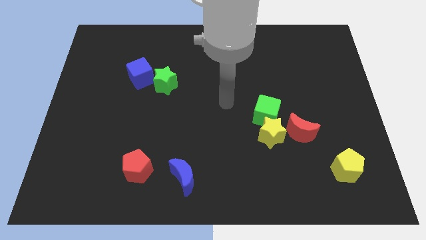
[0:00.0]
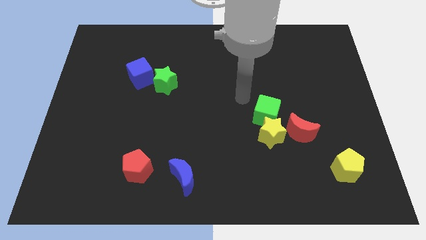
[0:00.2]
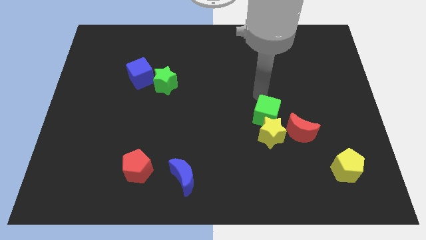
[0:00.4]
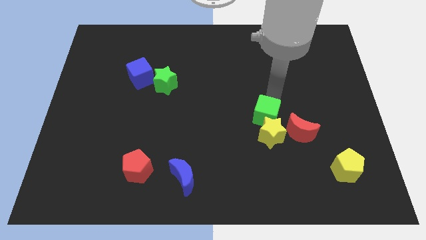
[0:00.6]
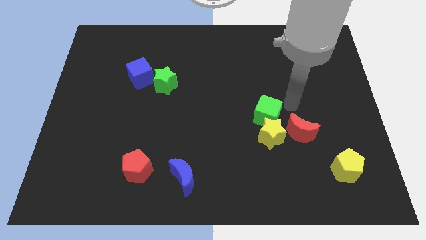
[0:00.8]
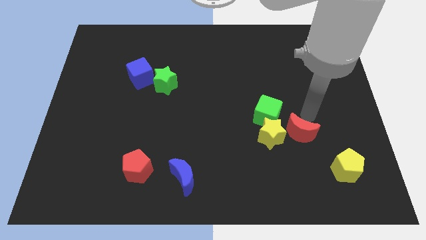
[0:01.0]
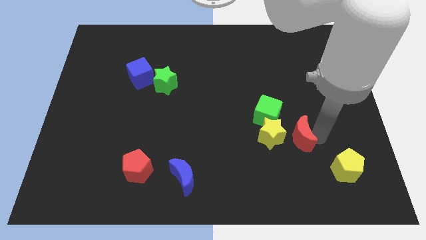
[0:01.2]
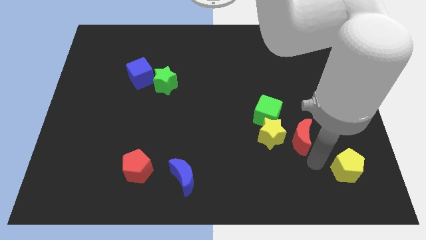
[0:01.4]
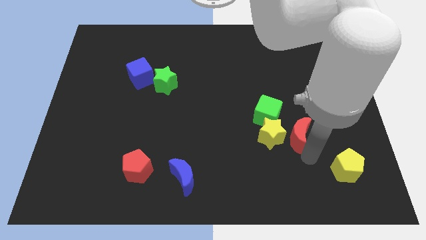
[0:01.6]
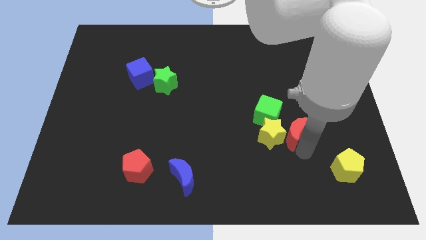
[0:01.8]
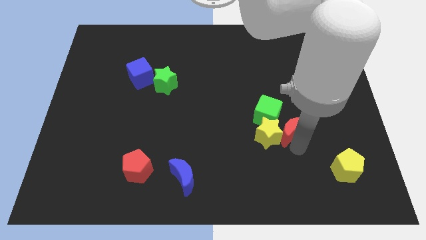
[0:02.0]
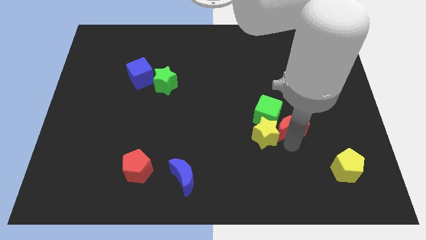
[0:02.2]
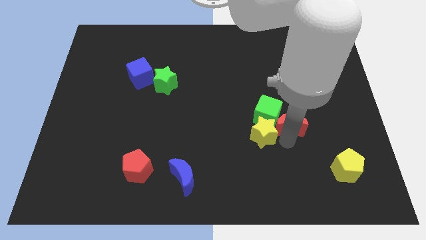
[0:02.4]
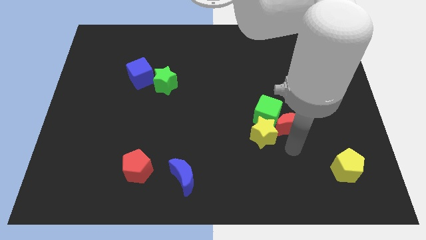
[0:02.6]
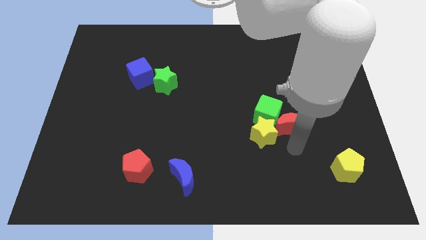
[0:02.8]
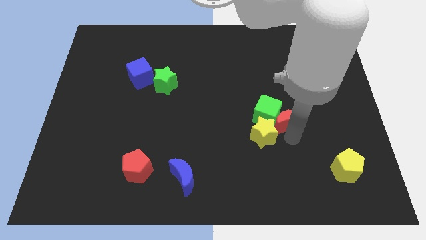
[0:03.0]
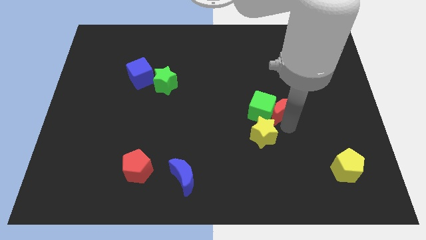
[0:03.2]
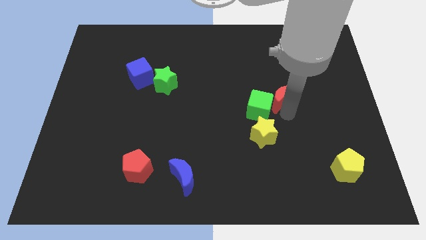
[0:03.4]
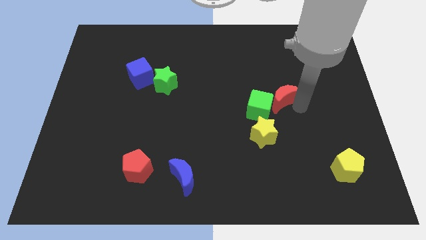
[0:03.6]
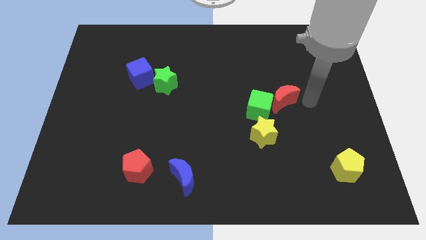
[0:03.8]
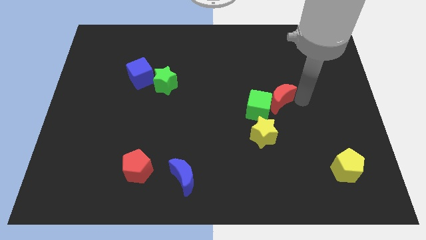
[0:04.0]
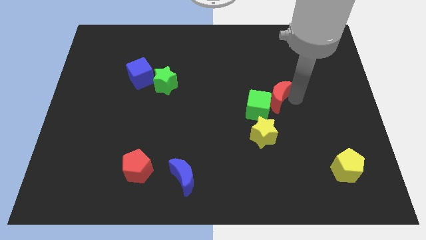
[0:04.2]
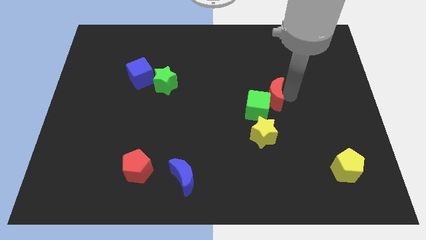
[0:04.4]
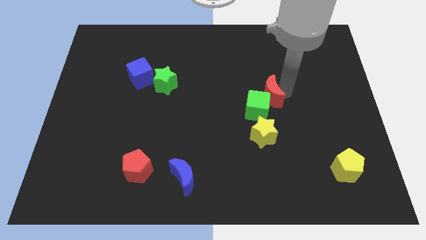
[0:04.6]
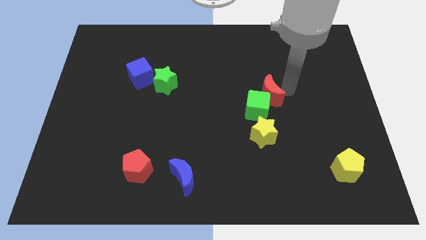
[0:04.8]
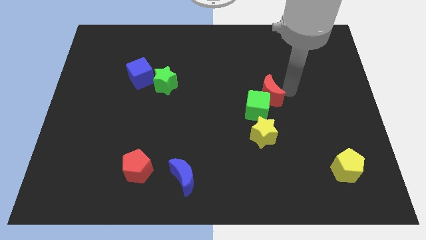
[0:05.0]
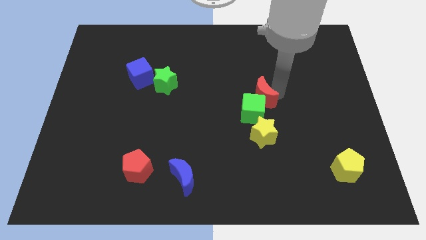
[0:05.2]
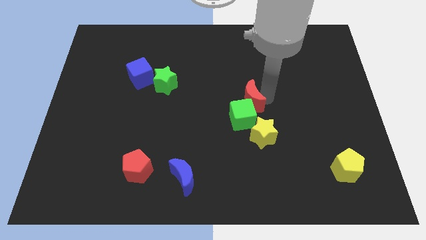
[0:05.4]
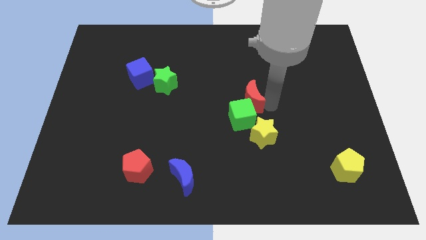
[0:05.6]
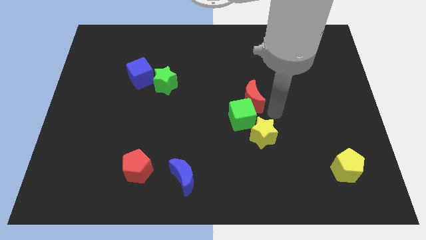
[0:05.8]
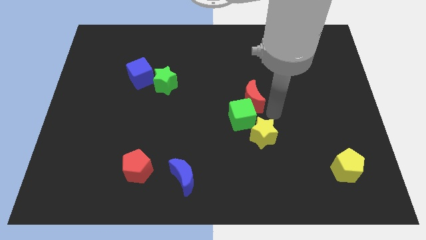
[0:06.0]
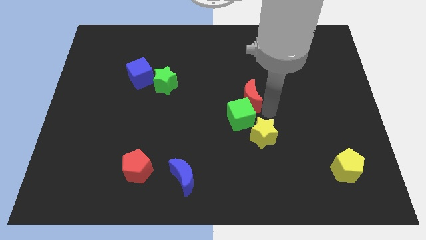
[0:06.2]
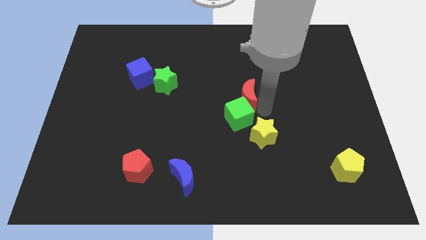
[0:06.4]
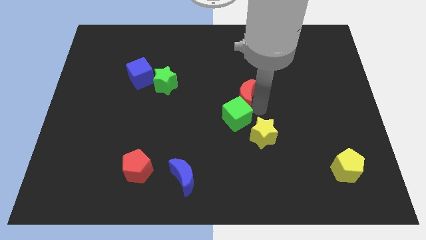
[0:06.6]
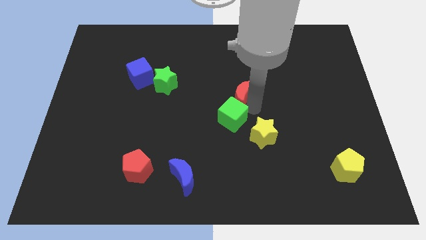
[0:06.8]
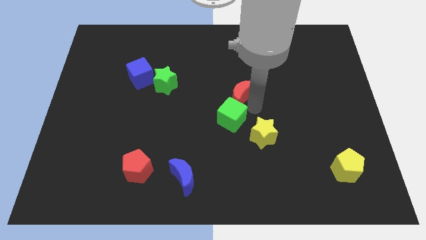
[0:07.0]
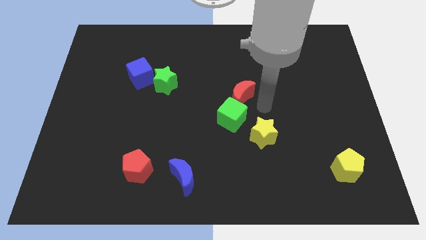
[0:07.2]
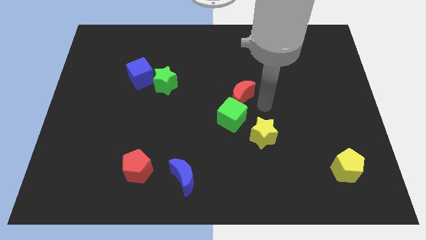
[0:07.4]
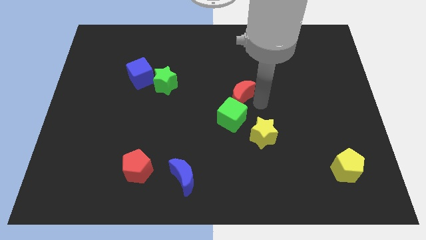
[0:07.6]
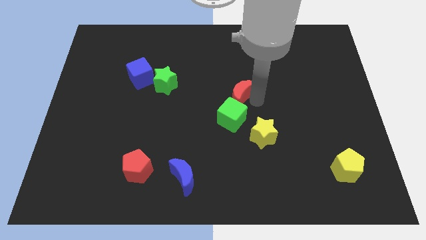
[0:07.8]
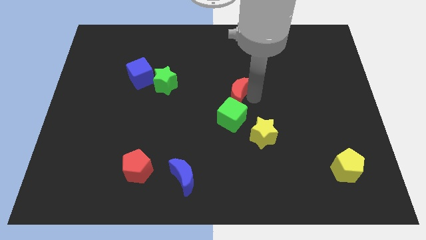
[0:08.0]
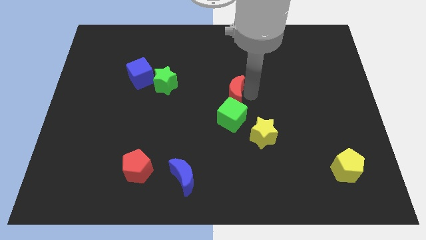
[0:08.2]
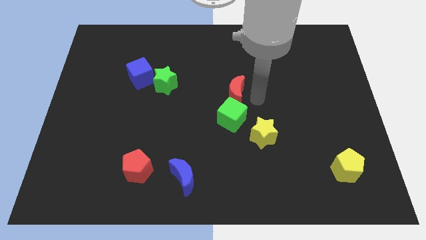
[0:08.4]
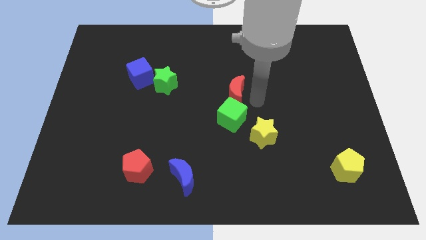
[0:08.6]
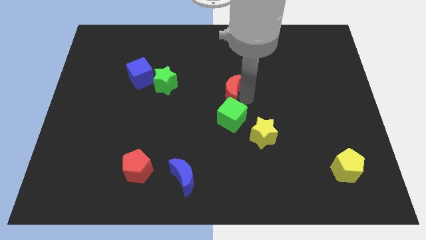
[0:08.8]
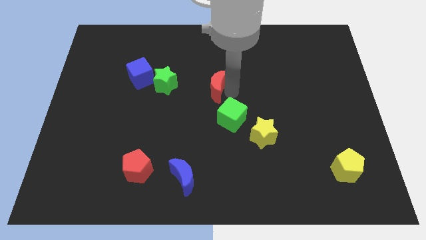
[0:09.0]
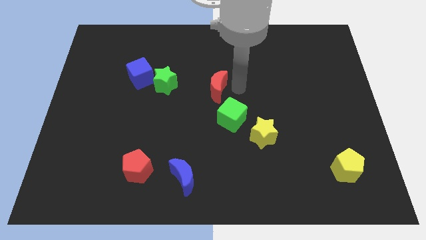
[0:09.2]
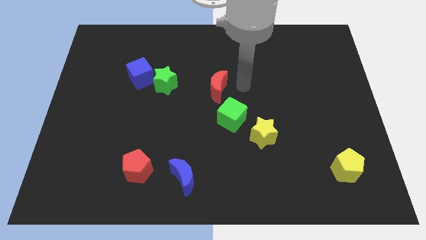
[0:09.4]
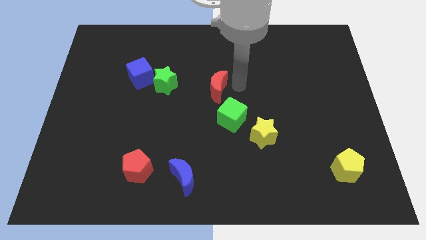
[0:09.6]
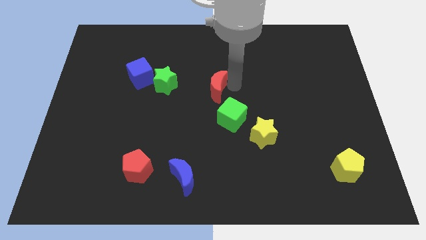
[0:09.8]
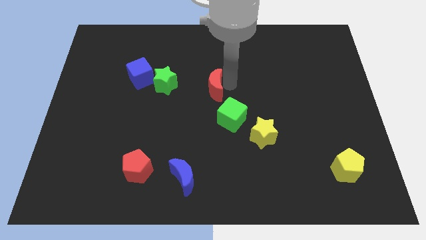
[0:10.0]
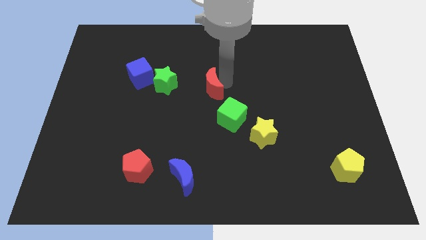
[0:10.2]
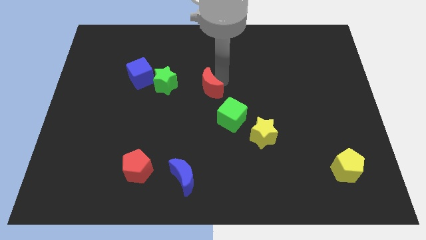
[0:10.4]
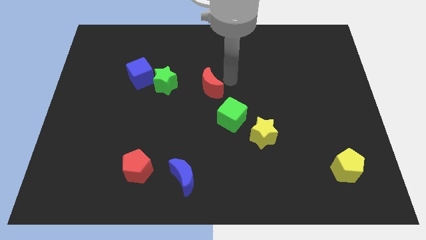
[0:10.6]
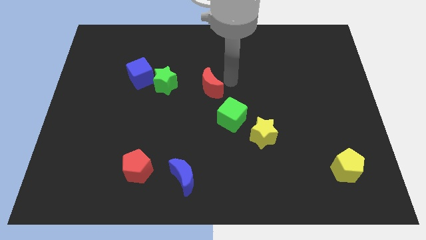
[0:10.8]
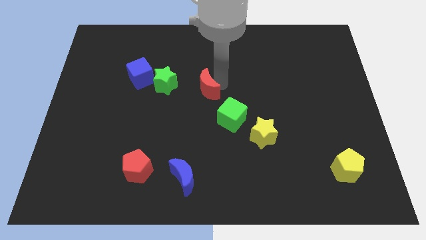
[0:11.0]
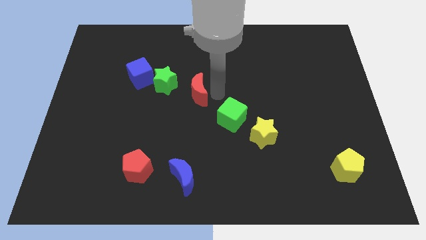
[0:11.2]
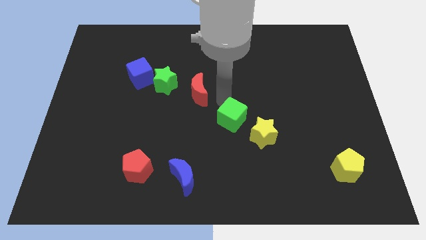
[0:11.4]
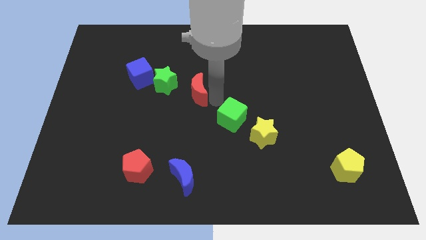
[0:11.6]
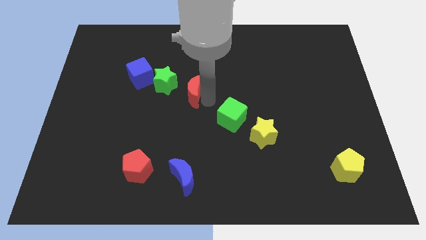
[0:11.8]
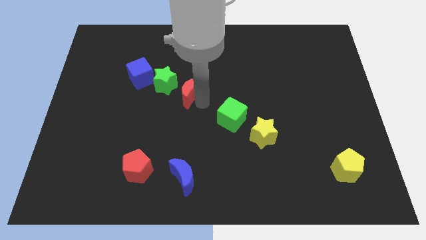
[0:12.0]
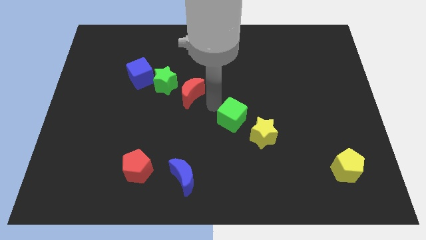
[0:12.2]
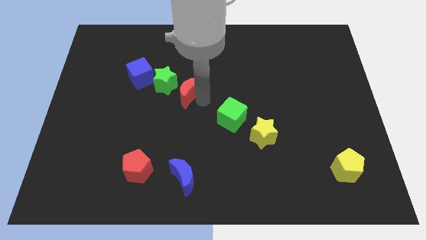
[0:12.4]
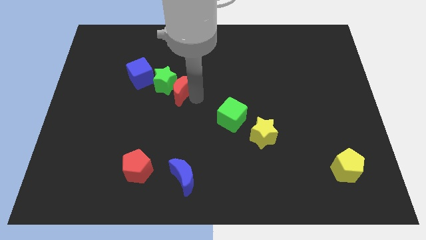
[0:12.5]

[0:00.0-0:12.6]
put the red moon to the green star

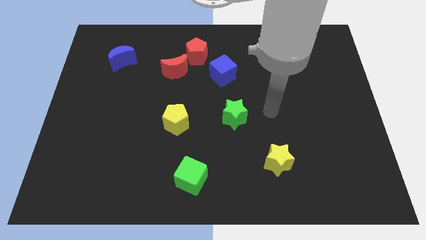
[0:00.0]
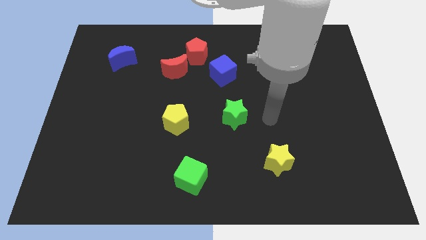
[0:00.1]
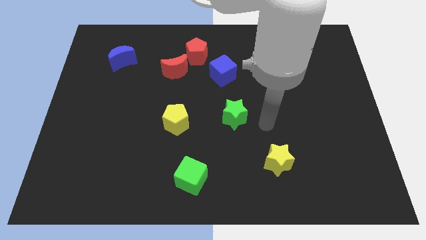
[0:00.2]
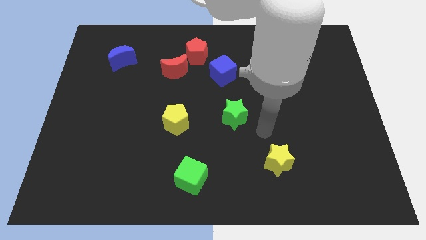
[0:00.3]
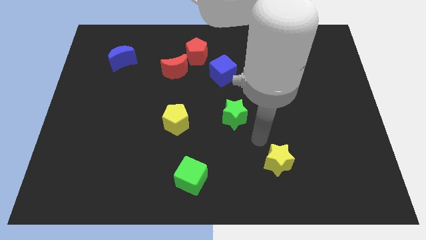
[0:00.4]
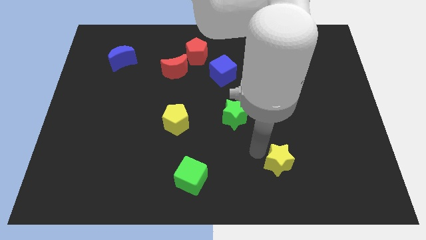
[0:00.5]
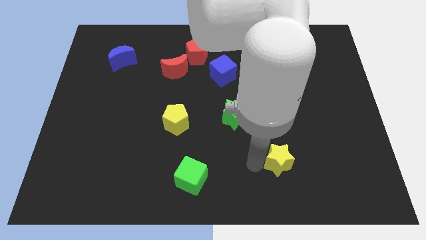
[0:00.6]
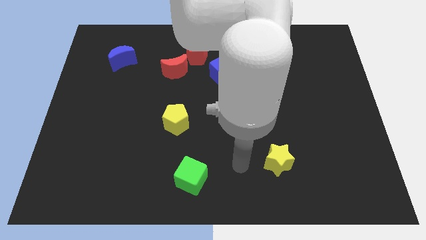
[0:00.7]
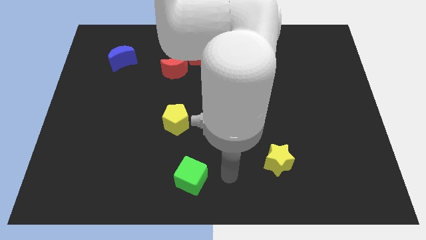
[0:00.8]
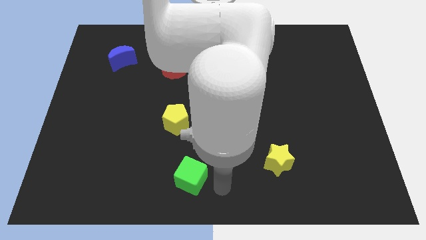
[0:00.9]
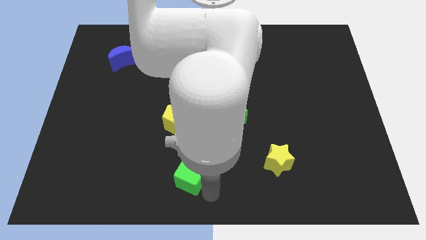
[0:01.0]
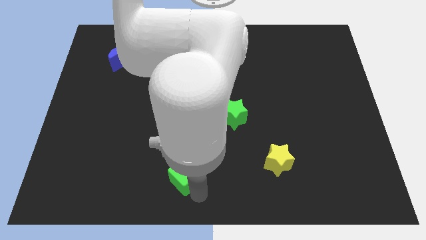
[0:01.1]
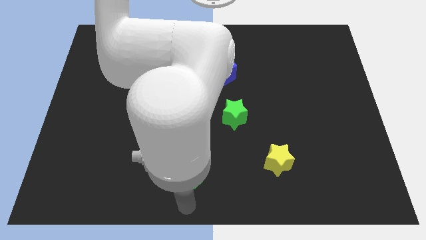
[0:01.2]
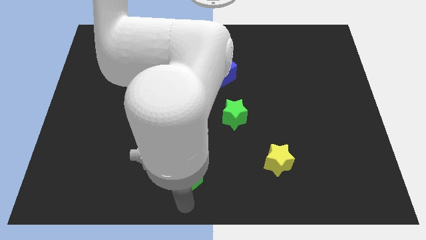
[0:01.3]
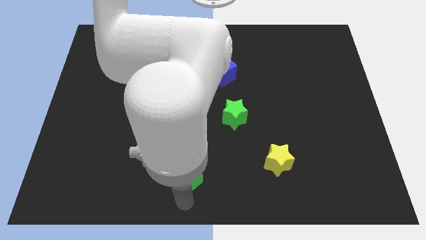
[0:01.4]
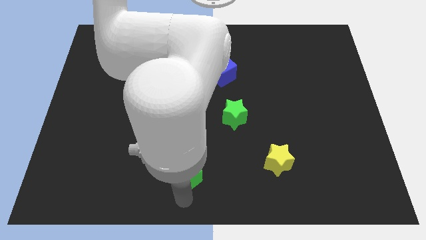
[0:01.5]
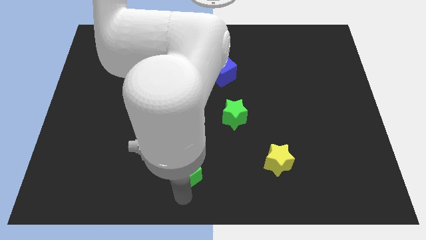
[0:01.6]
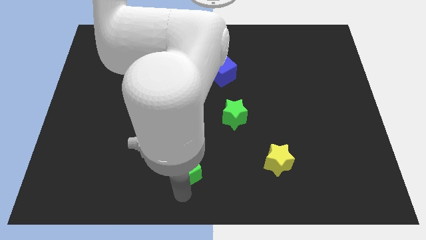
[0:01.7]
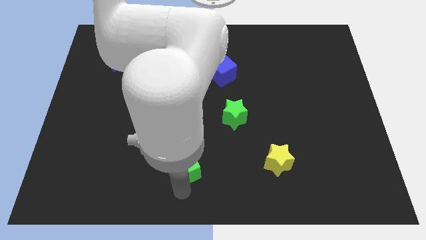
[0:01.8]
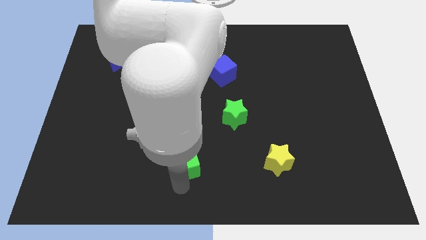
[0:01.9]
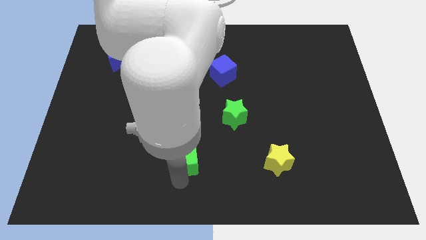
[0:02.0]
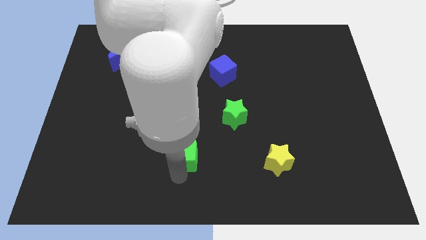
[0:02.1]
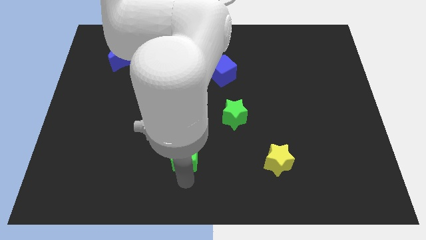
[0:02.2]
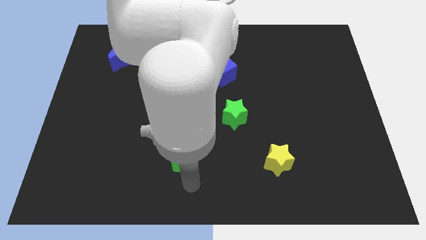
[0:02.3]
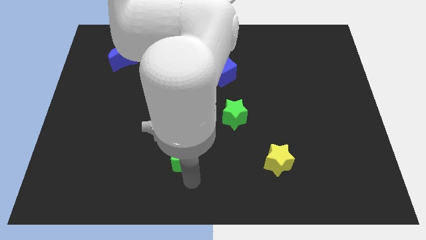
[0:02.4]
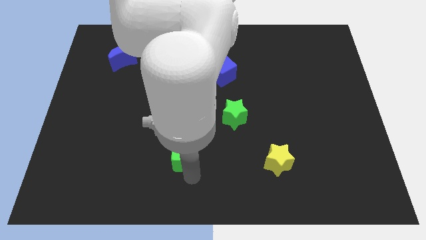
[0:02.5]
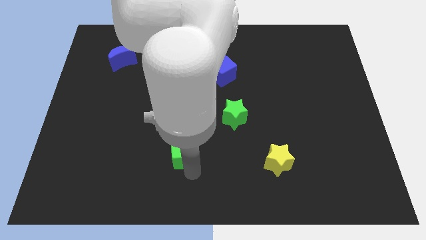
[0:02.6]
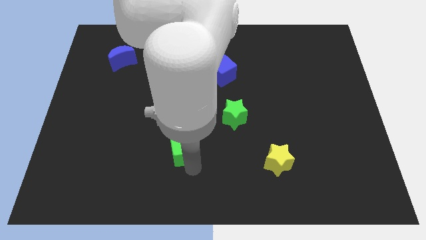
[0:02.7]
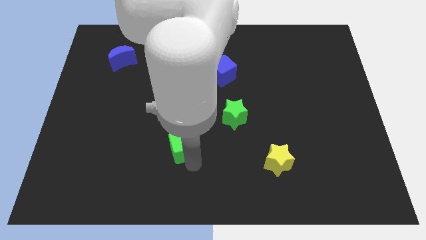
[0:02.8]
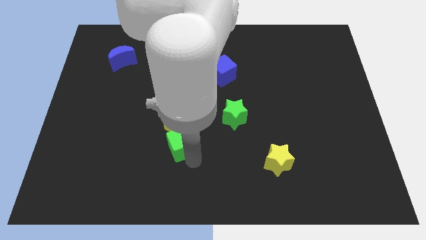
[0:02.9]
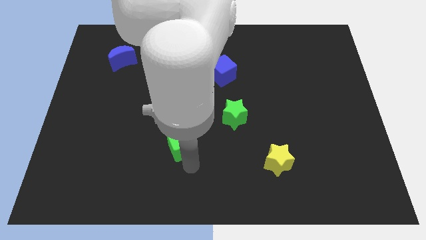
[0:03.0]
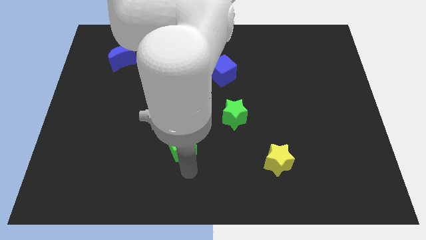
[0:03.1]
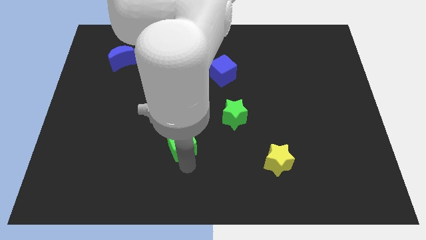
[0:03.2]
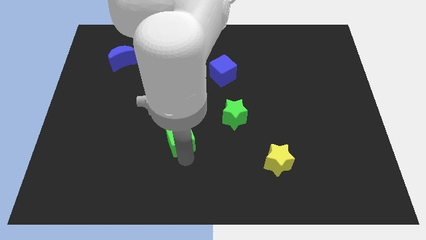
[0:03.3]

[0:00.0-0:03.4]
slide the green cube towards the yellow pentagon
